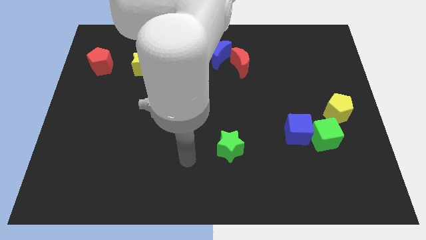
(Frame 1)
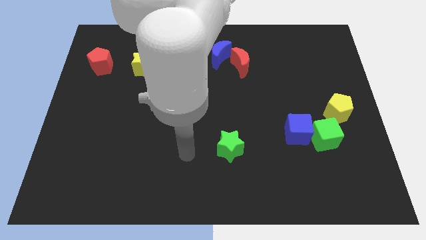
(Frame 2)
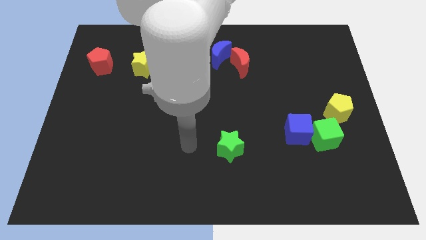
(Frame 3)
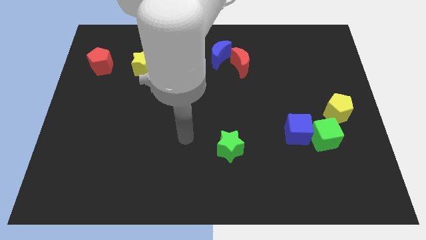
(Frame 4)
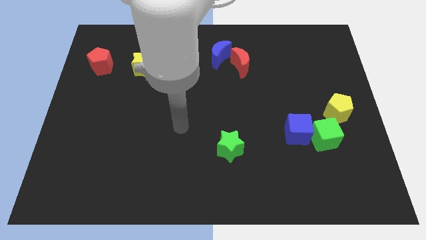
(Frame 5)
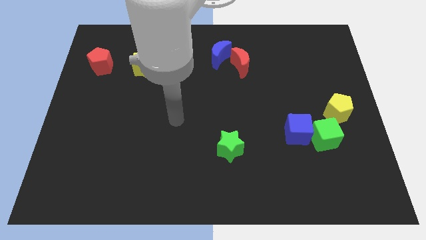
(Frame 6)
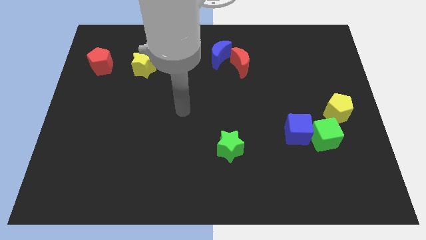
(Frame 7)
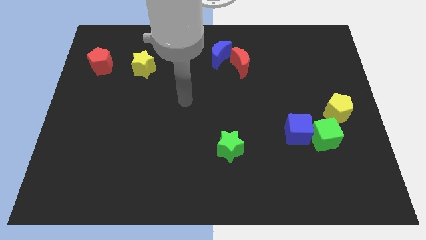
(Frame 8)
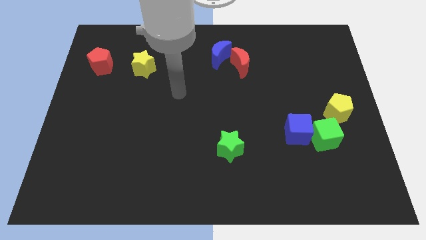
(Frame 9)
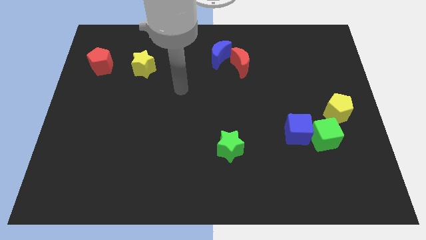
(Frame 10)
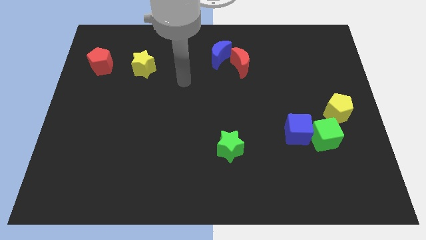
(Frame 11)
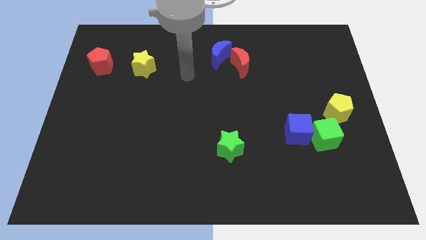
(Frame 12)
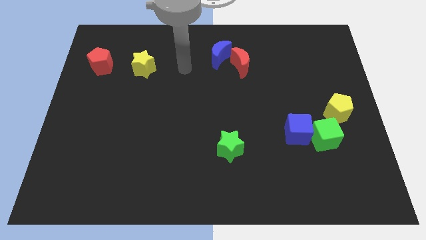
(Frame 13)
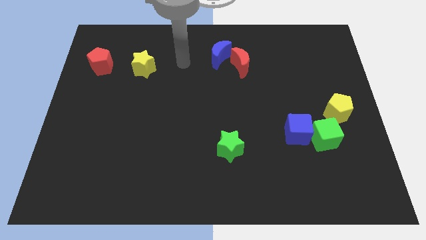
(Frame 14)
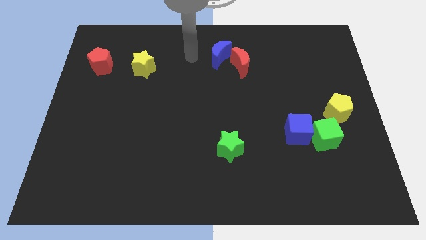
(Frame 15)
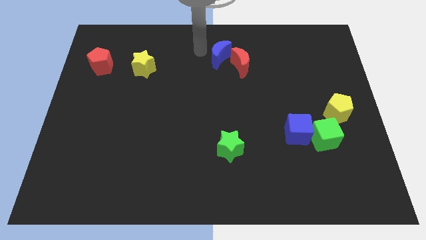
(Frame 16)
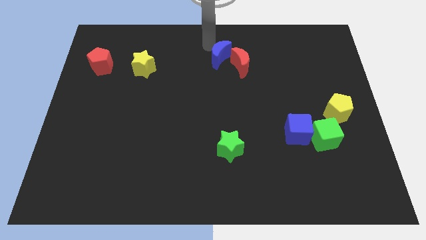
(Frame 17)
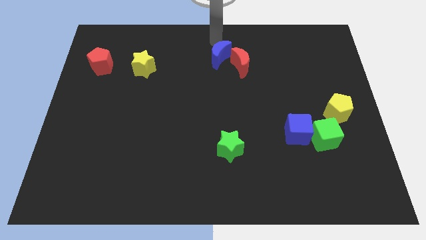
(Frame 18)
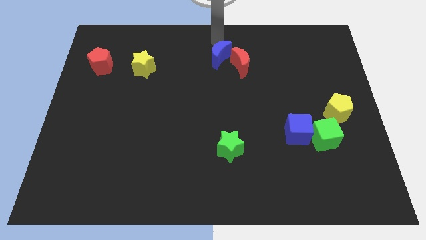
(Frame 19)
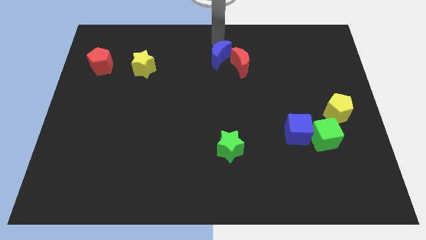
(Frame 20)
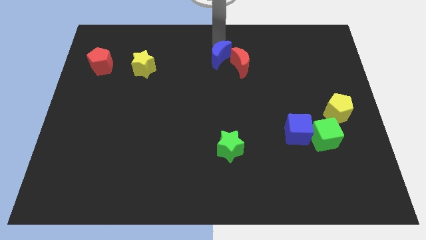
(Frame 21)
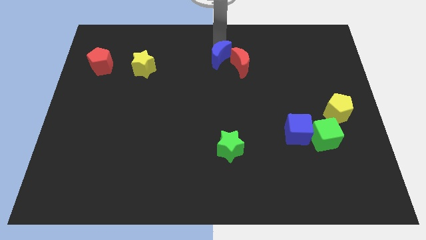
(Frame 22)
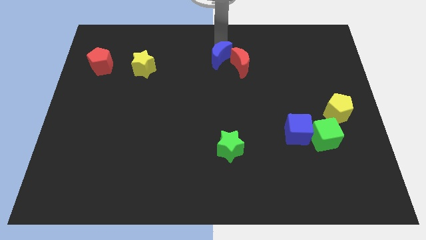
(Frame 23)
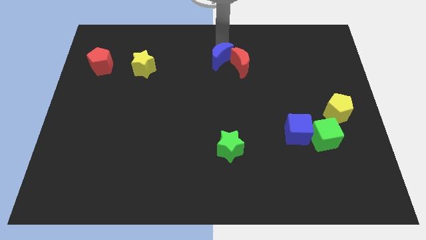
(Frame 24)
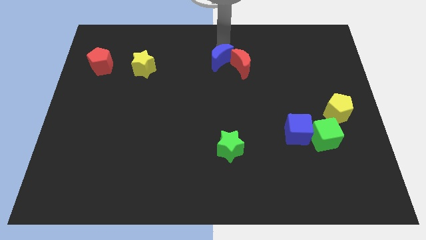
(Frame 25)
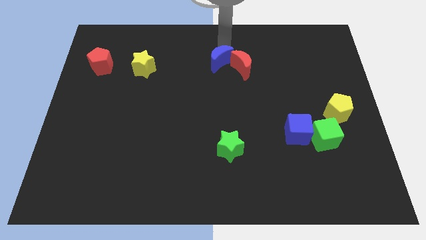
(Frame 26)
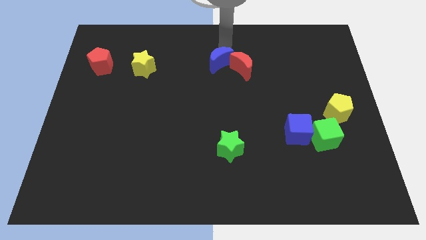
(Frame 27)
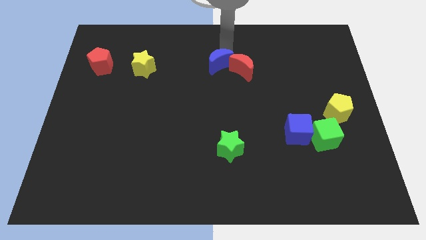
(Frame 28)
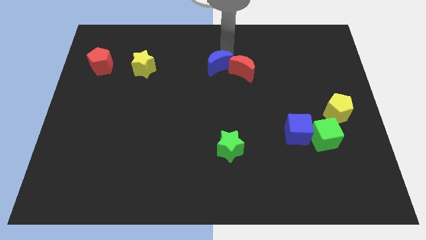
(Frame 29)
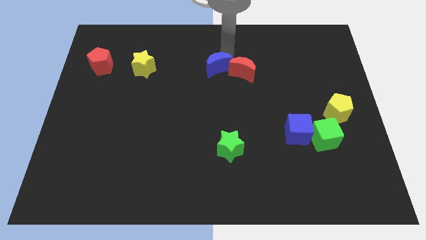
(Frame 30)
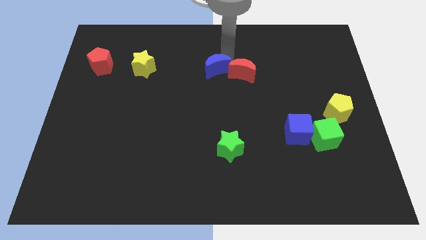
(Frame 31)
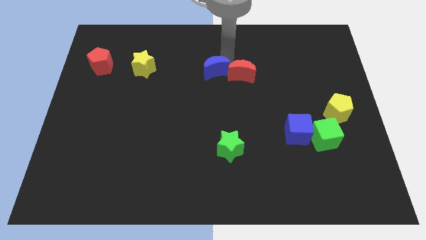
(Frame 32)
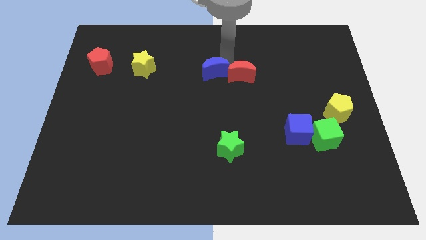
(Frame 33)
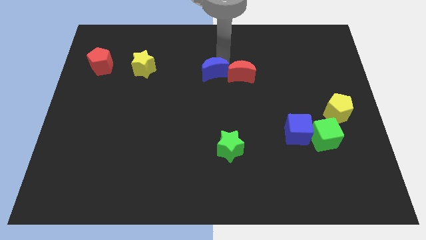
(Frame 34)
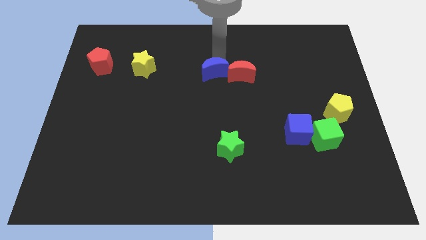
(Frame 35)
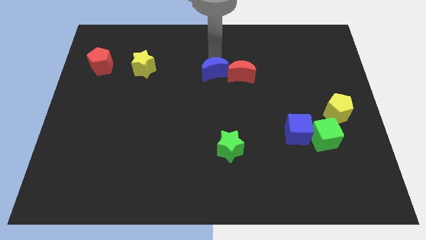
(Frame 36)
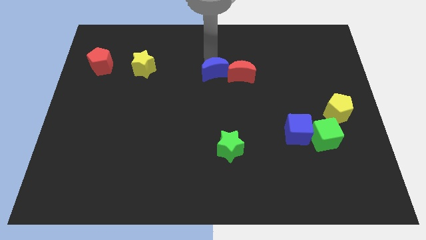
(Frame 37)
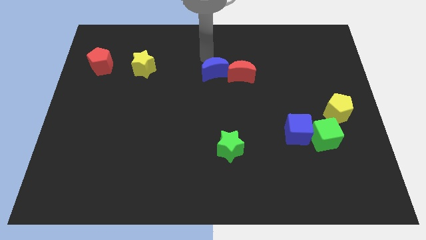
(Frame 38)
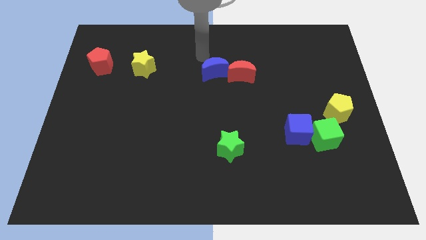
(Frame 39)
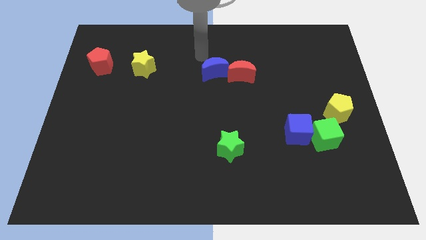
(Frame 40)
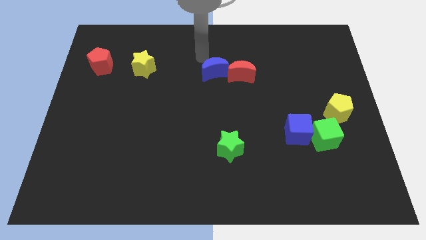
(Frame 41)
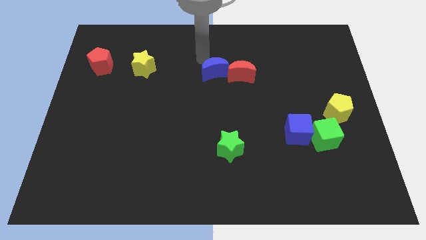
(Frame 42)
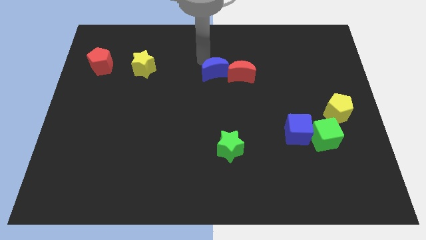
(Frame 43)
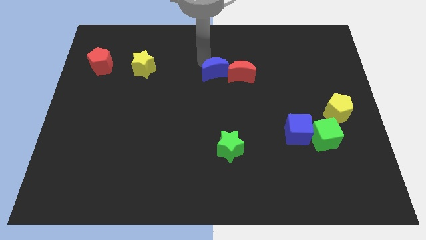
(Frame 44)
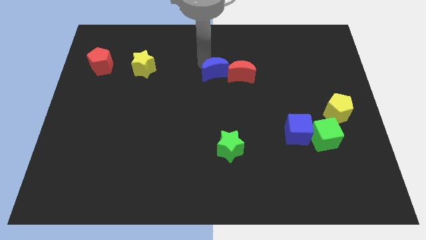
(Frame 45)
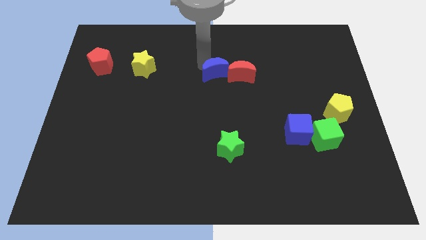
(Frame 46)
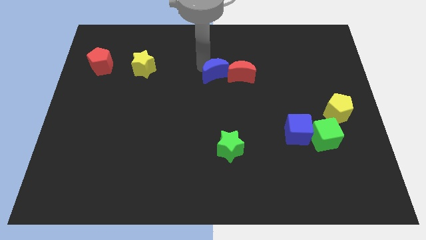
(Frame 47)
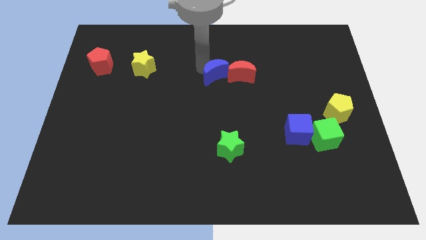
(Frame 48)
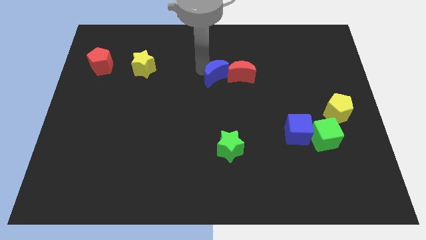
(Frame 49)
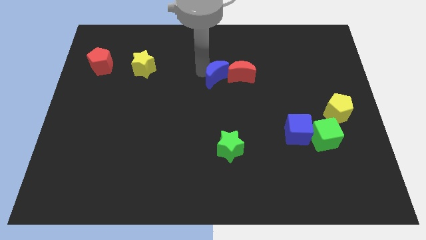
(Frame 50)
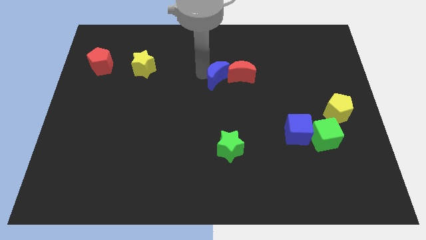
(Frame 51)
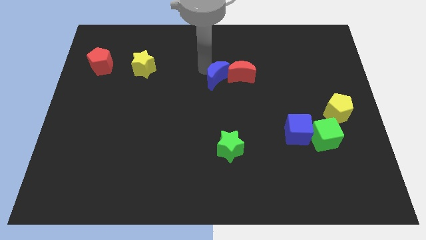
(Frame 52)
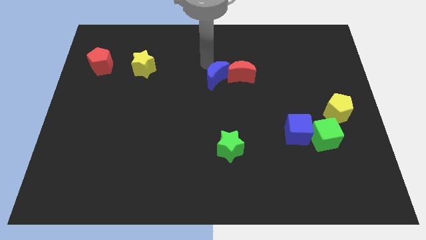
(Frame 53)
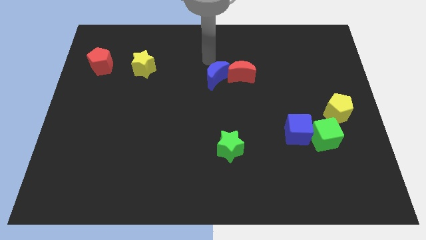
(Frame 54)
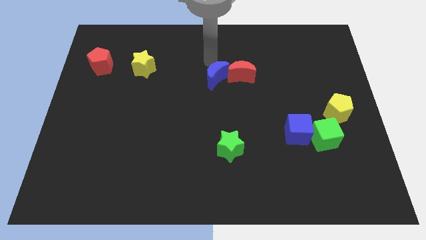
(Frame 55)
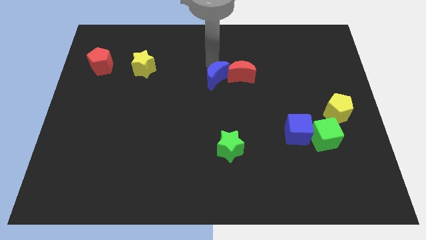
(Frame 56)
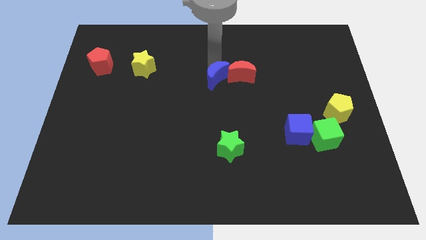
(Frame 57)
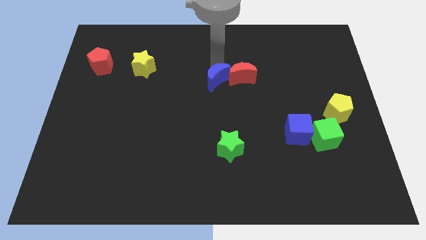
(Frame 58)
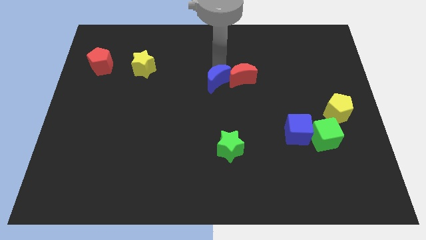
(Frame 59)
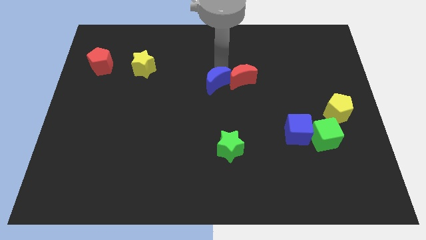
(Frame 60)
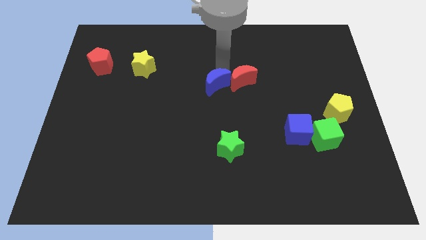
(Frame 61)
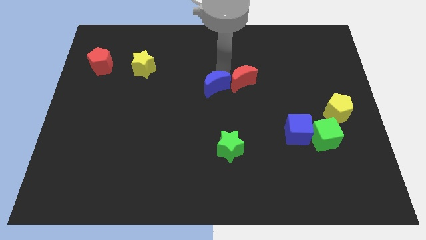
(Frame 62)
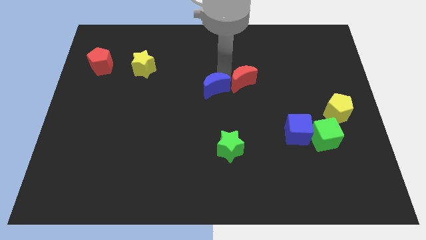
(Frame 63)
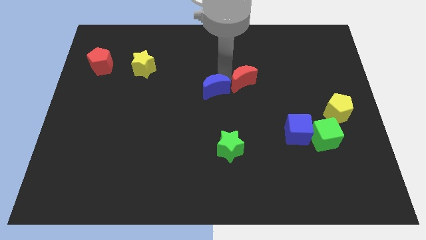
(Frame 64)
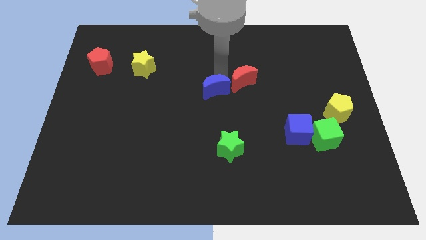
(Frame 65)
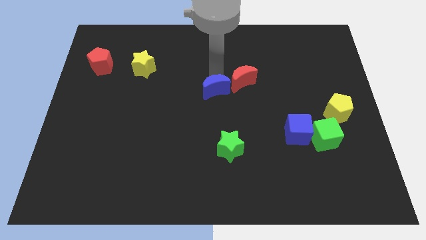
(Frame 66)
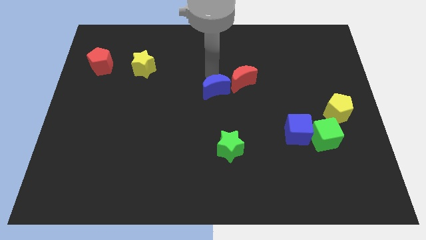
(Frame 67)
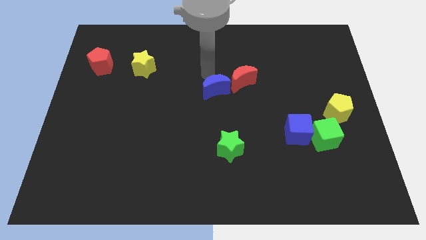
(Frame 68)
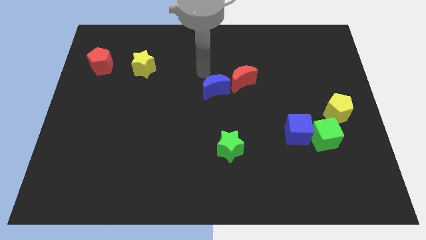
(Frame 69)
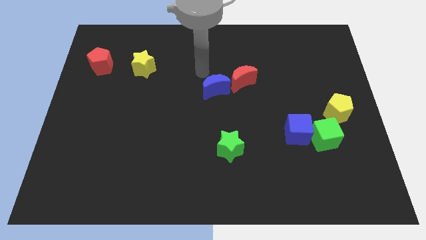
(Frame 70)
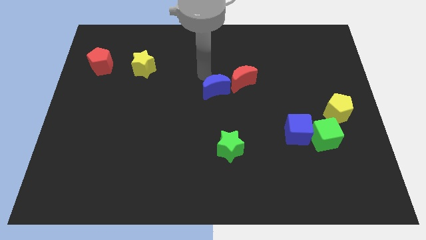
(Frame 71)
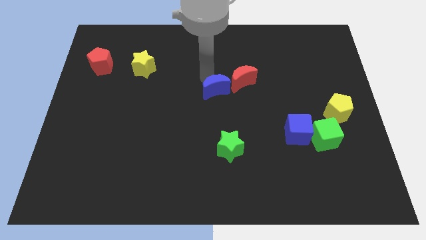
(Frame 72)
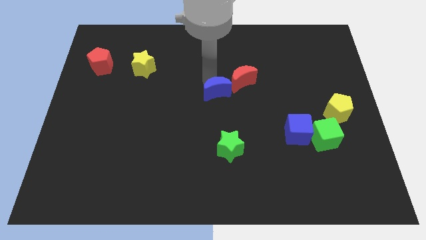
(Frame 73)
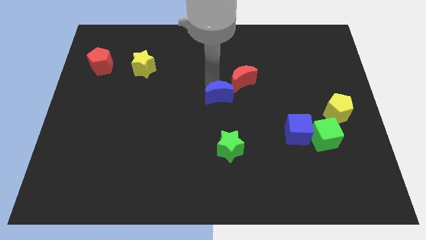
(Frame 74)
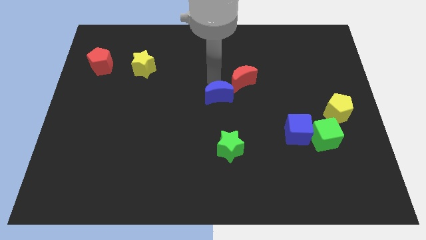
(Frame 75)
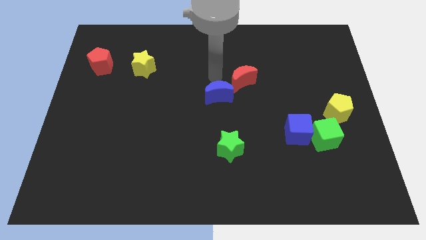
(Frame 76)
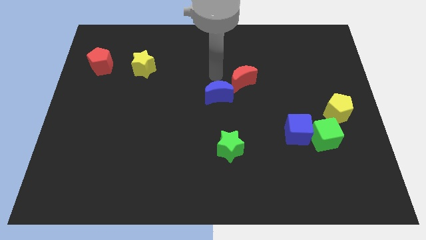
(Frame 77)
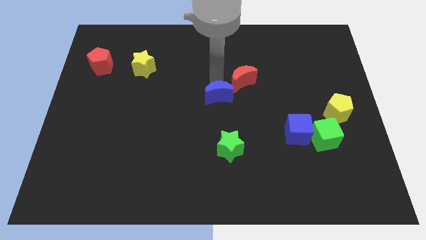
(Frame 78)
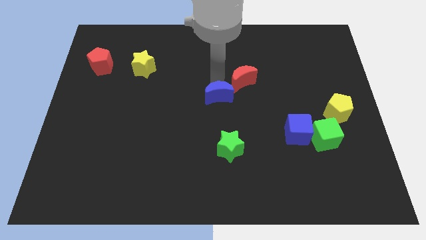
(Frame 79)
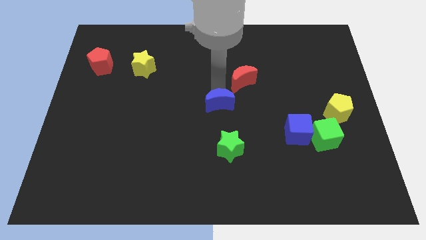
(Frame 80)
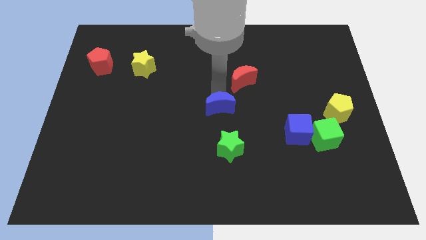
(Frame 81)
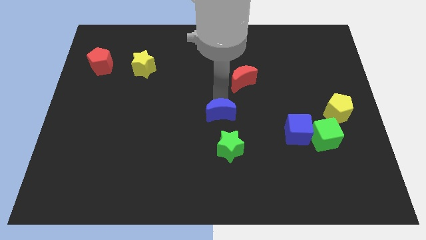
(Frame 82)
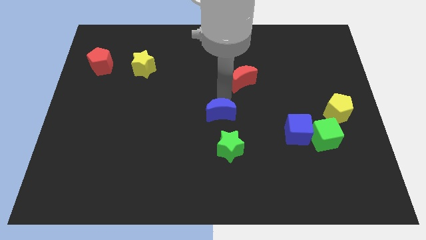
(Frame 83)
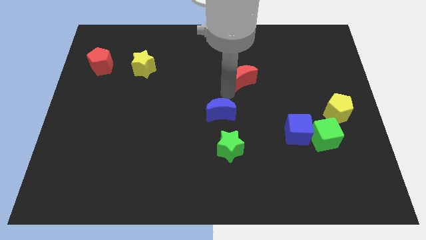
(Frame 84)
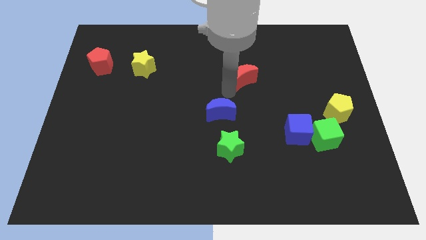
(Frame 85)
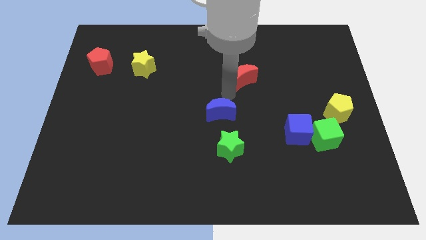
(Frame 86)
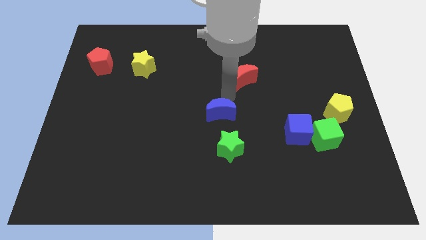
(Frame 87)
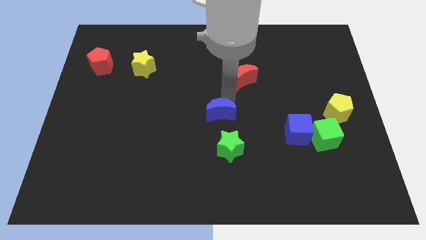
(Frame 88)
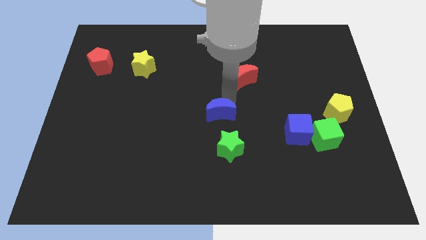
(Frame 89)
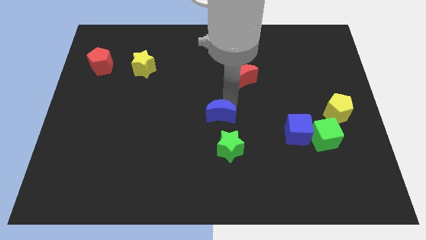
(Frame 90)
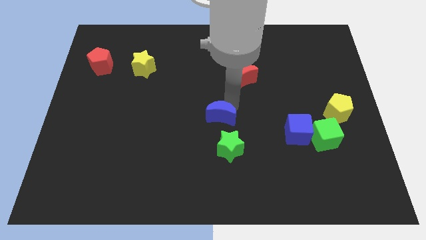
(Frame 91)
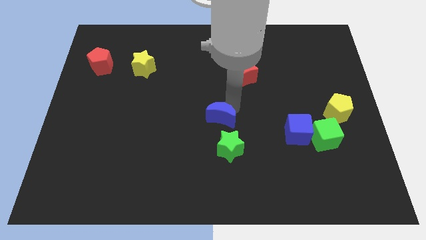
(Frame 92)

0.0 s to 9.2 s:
push the blue moon down
